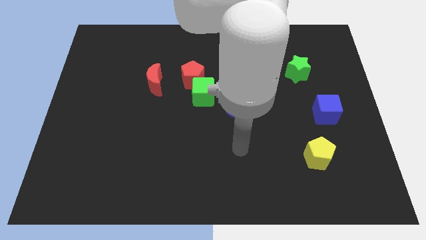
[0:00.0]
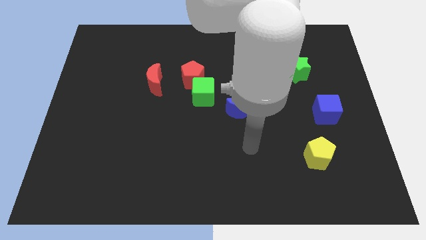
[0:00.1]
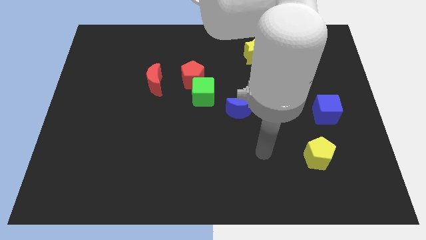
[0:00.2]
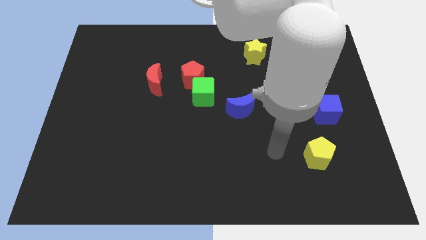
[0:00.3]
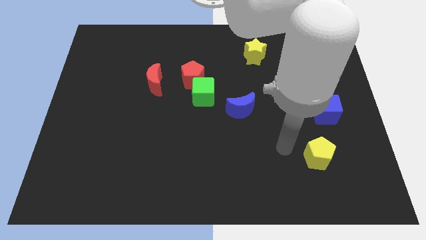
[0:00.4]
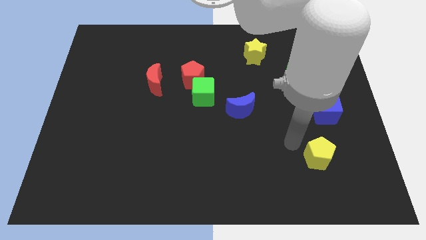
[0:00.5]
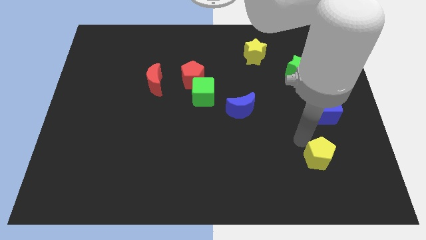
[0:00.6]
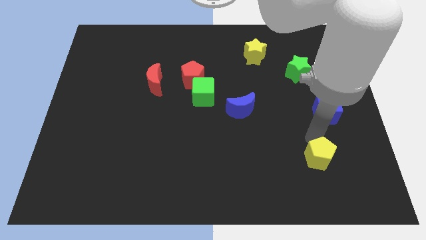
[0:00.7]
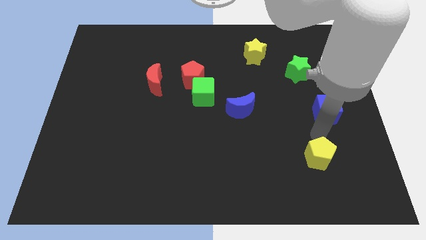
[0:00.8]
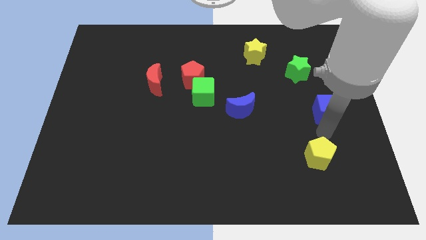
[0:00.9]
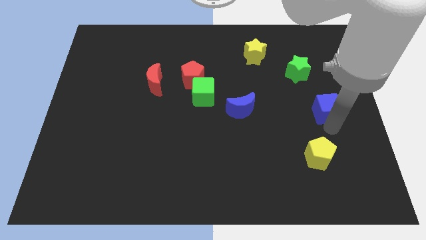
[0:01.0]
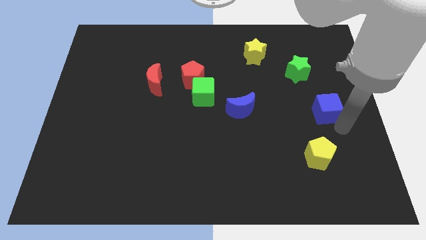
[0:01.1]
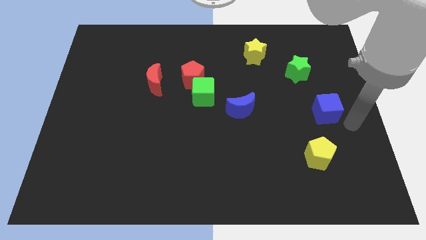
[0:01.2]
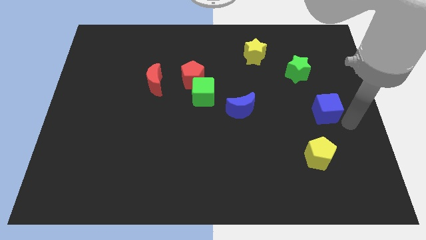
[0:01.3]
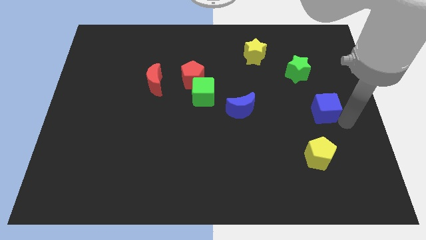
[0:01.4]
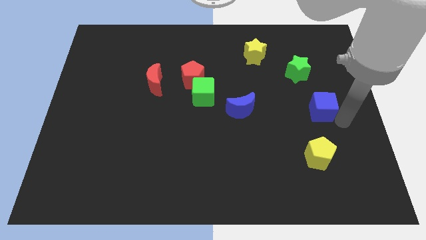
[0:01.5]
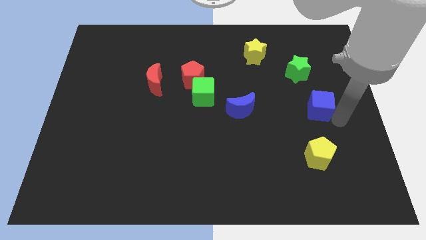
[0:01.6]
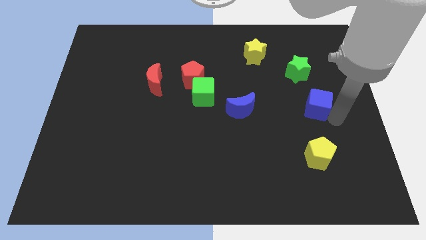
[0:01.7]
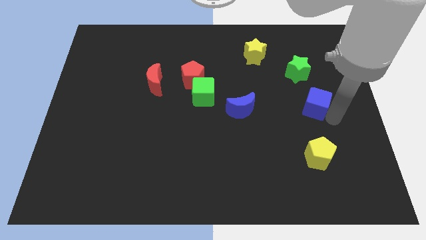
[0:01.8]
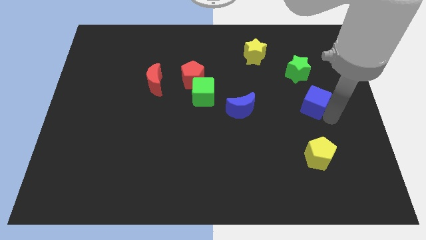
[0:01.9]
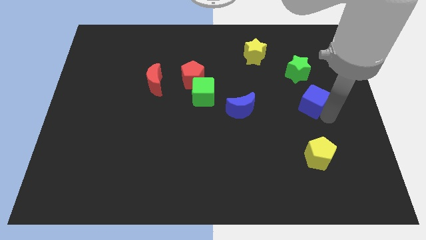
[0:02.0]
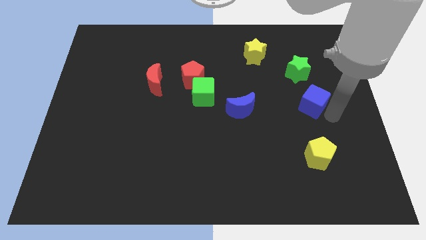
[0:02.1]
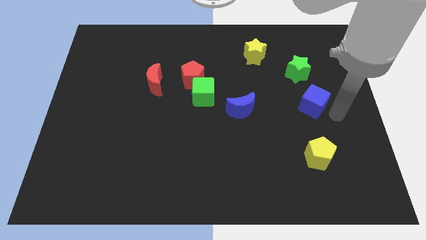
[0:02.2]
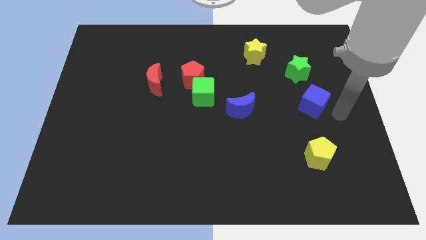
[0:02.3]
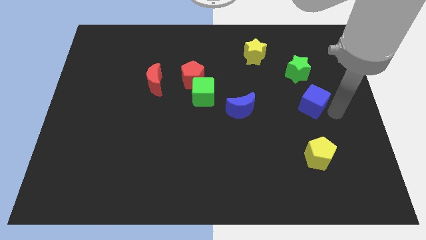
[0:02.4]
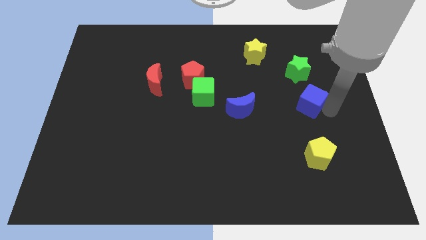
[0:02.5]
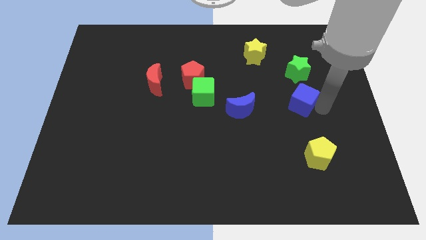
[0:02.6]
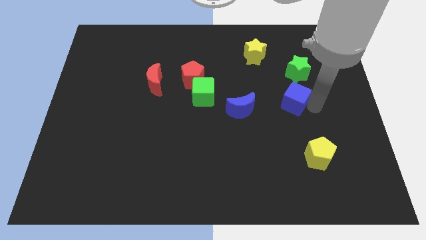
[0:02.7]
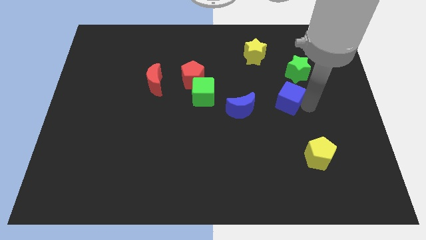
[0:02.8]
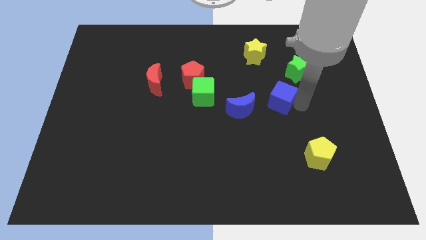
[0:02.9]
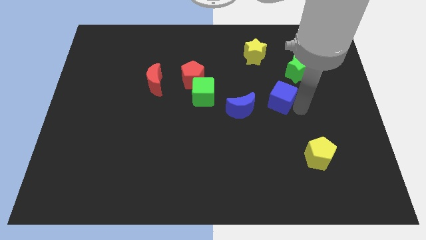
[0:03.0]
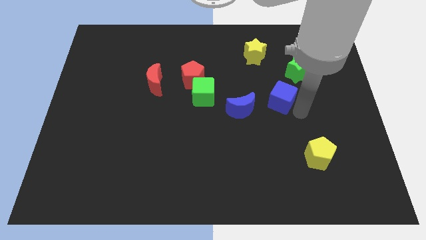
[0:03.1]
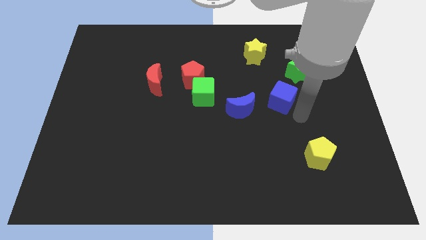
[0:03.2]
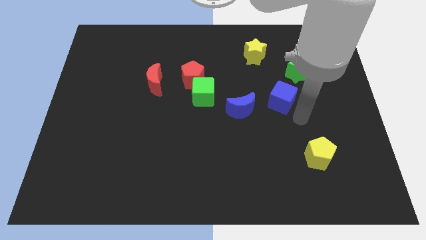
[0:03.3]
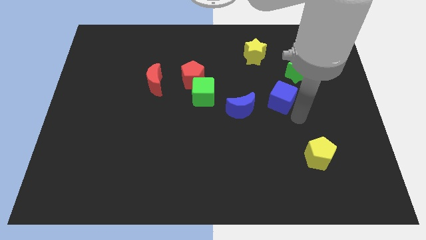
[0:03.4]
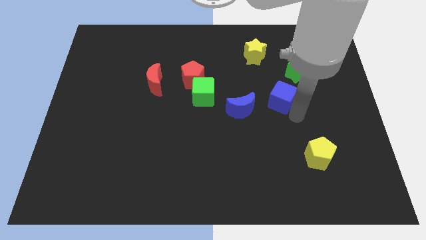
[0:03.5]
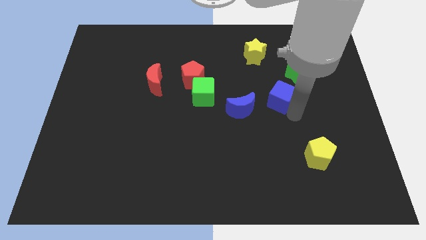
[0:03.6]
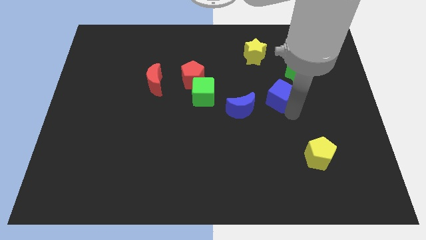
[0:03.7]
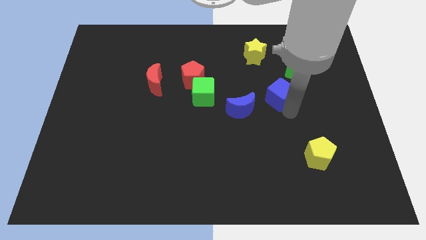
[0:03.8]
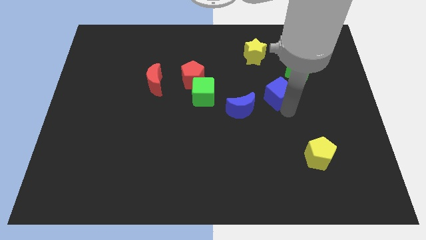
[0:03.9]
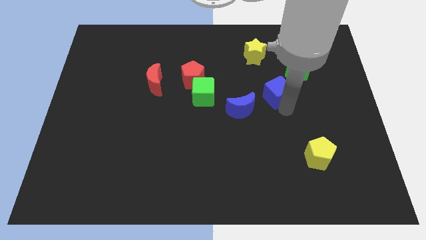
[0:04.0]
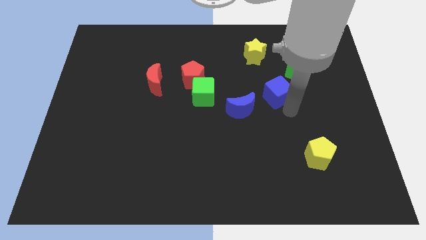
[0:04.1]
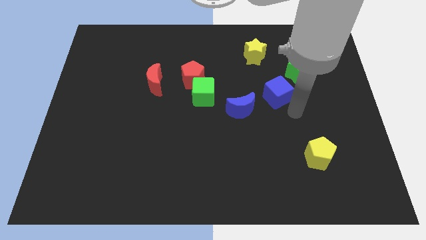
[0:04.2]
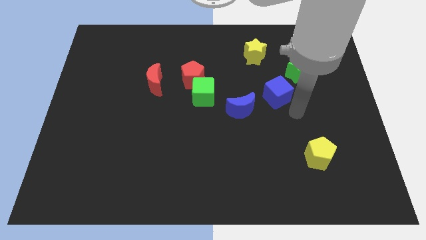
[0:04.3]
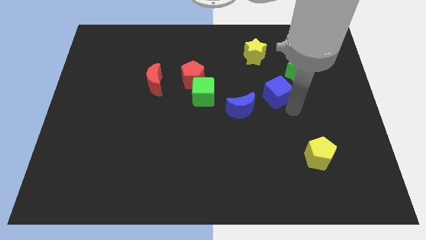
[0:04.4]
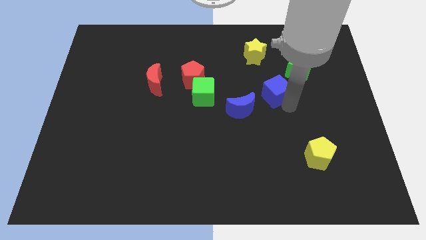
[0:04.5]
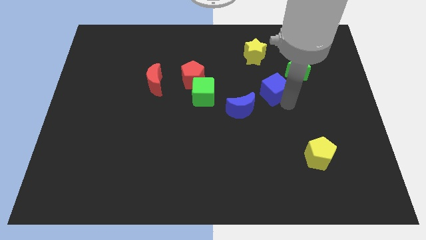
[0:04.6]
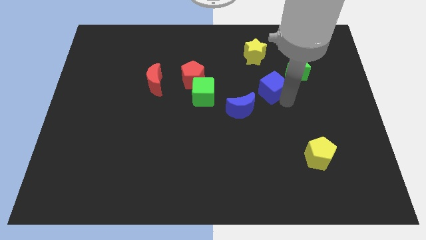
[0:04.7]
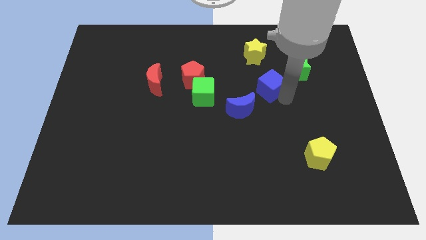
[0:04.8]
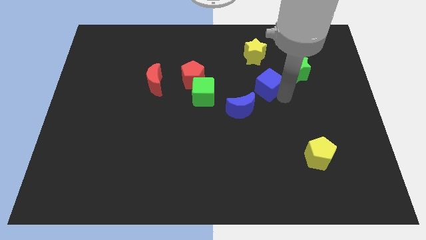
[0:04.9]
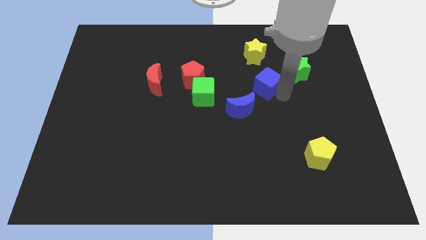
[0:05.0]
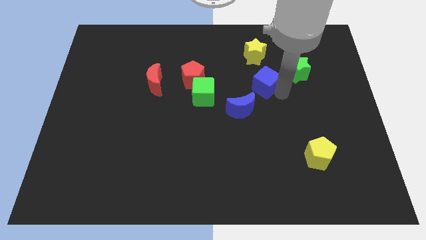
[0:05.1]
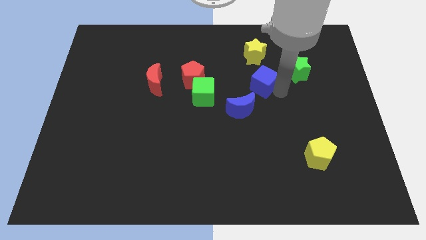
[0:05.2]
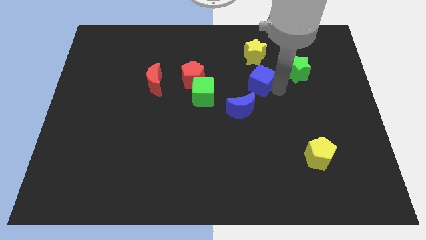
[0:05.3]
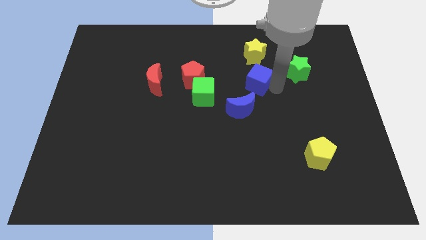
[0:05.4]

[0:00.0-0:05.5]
slide the blue cube to the top of the blue moon

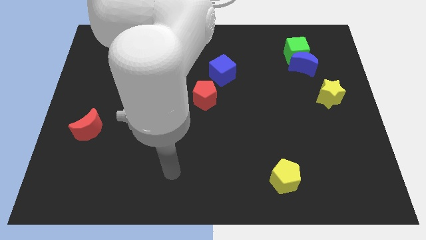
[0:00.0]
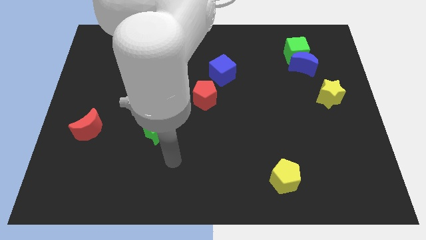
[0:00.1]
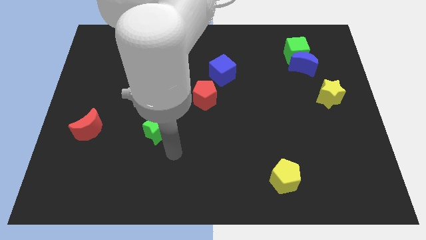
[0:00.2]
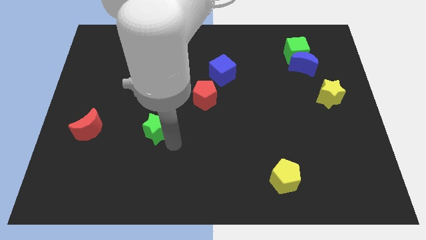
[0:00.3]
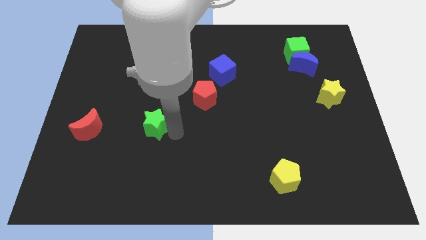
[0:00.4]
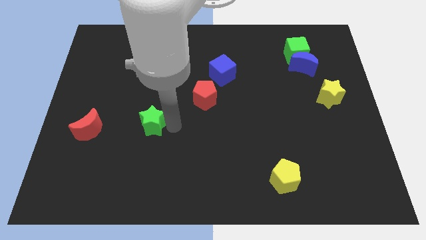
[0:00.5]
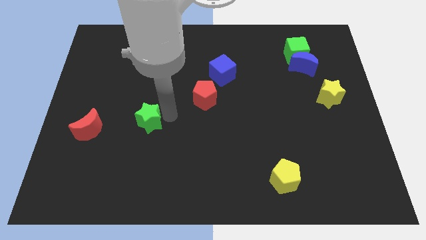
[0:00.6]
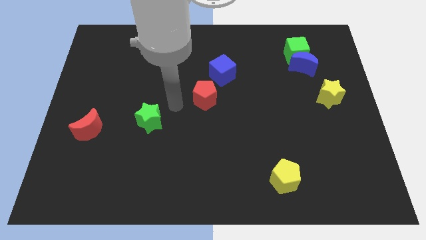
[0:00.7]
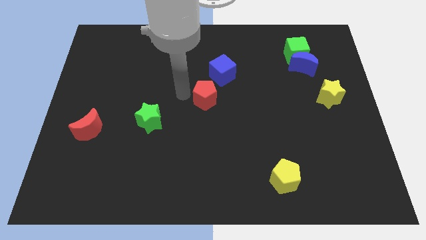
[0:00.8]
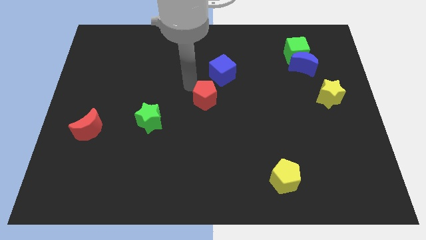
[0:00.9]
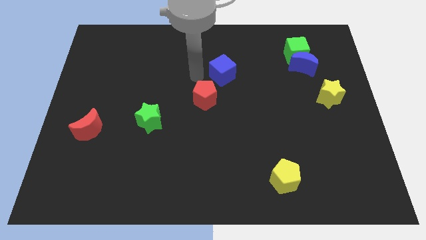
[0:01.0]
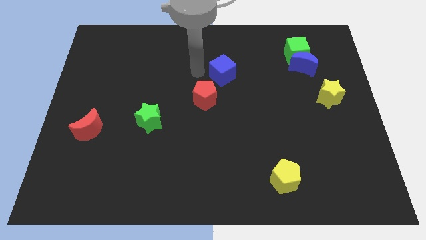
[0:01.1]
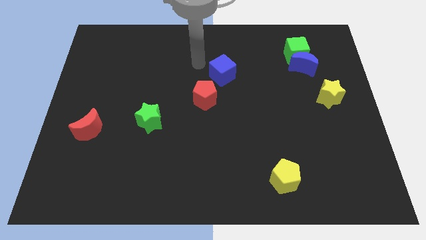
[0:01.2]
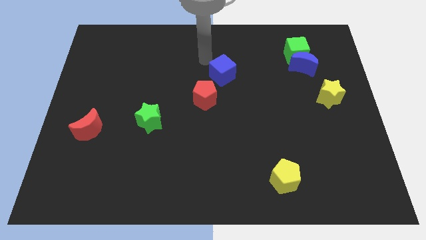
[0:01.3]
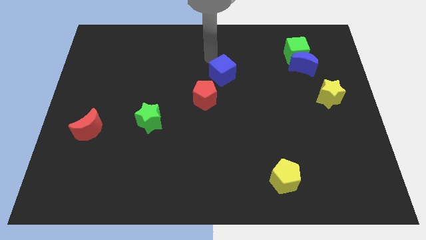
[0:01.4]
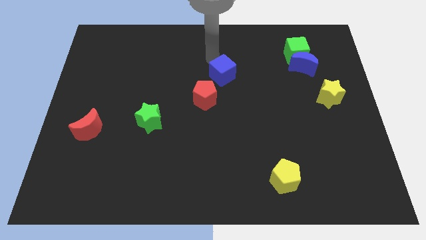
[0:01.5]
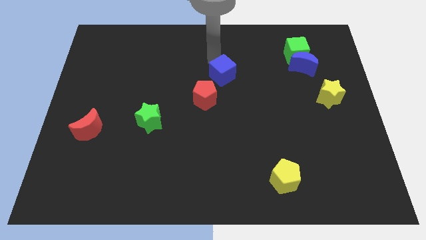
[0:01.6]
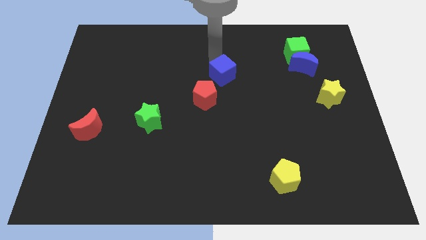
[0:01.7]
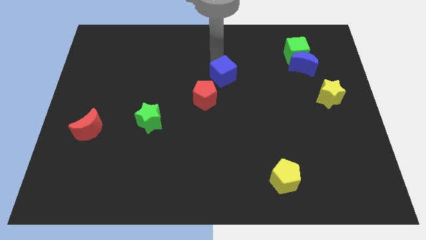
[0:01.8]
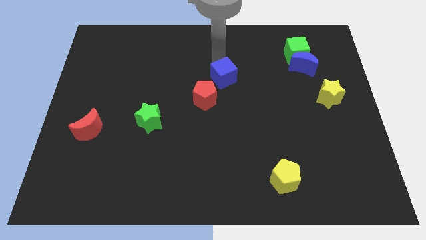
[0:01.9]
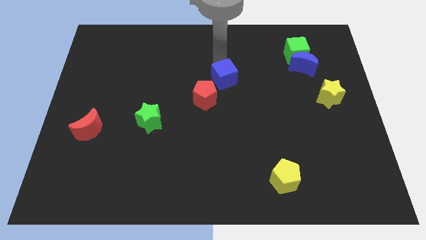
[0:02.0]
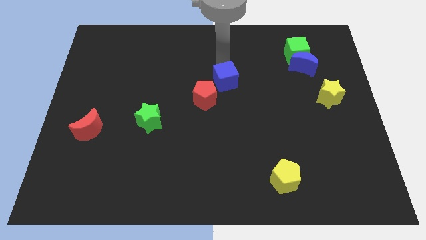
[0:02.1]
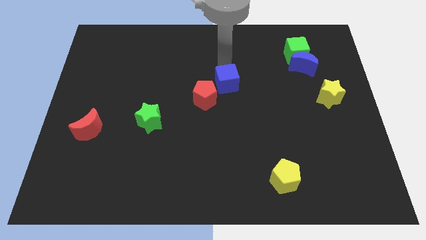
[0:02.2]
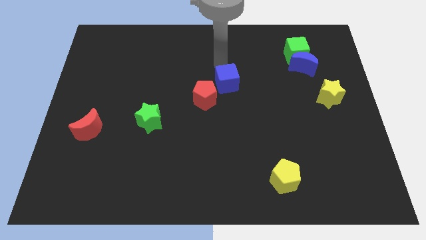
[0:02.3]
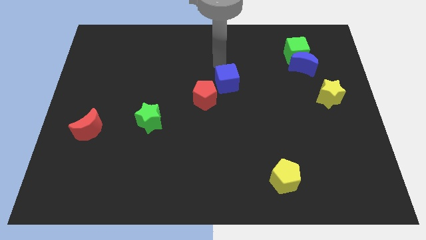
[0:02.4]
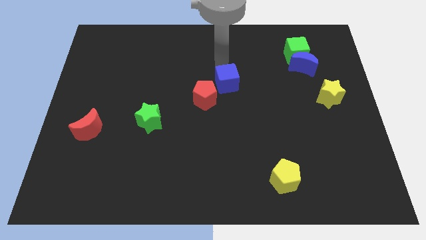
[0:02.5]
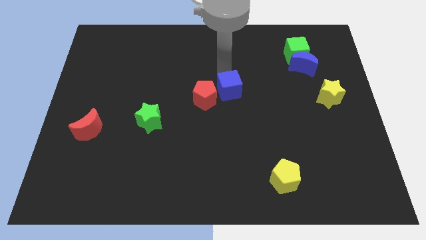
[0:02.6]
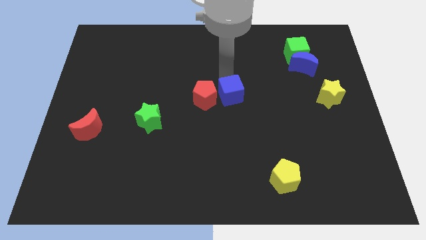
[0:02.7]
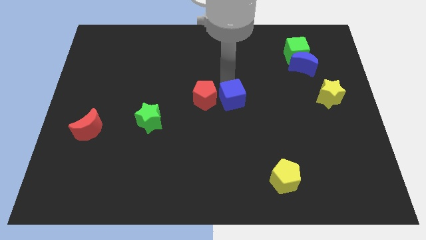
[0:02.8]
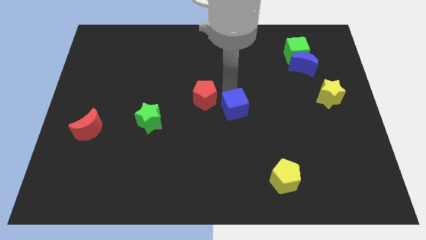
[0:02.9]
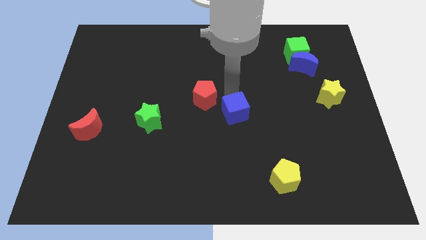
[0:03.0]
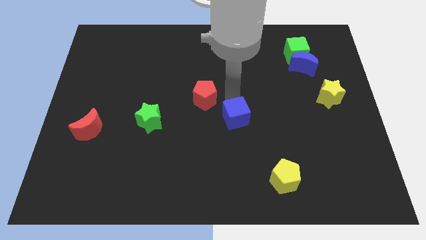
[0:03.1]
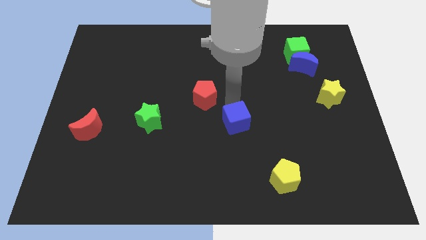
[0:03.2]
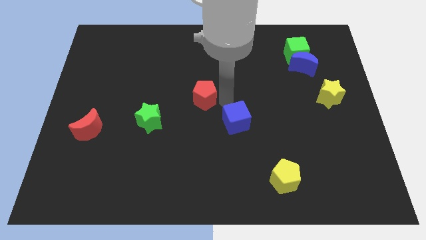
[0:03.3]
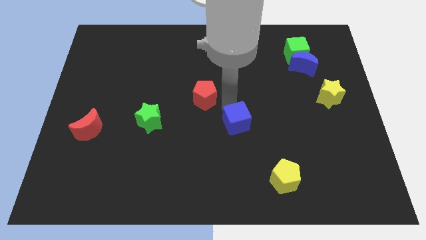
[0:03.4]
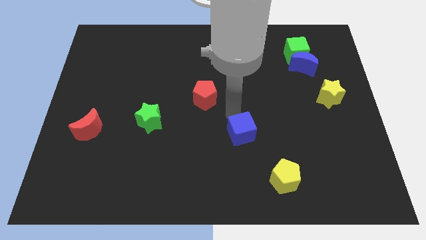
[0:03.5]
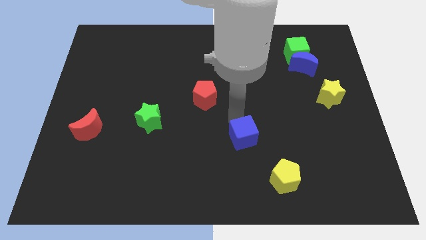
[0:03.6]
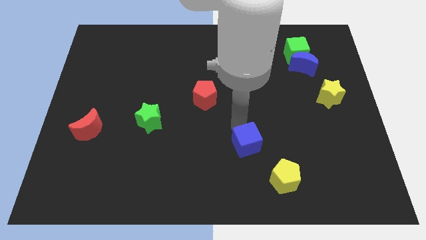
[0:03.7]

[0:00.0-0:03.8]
move the blue cube to the top left side of the yellow pentagon
